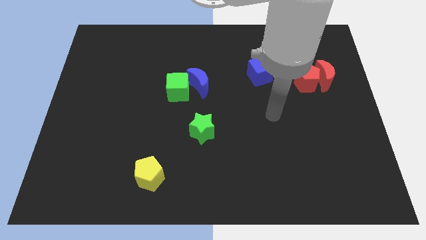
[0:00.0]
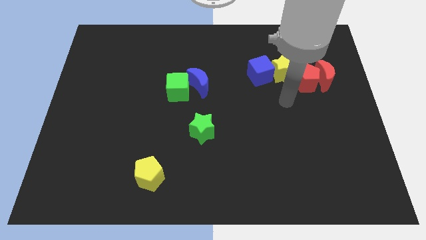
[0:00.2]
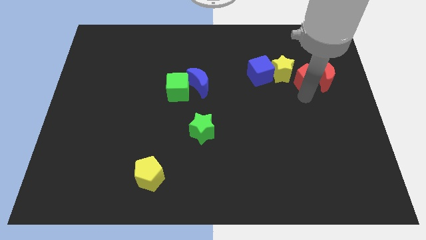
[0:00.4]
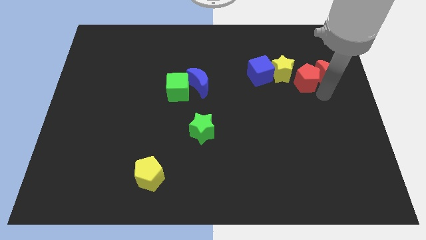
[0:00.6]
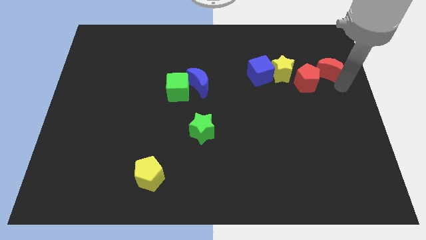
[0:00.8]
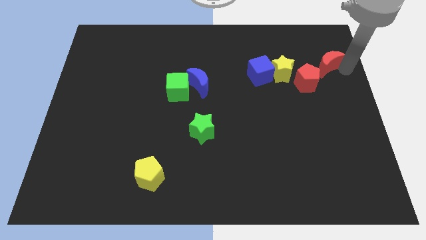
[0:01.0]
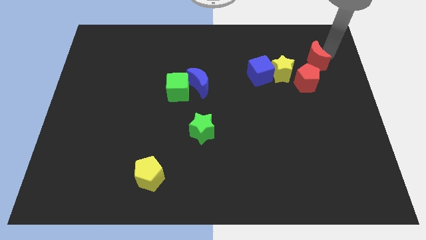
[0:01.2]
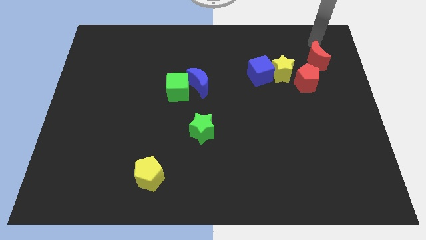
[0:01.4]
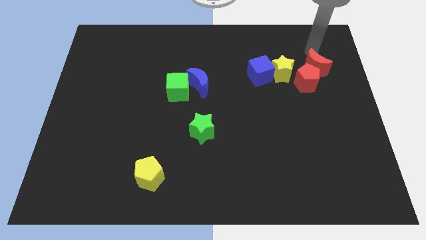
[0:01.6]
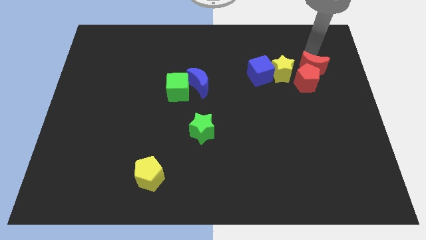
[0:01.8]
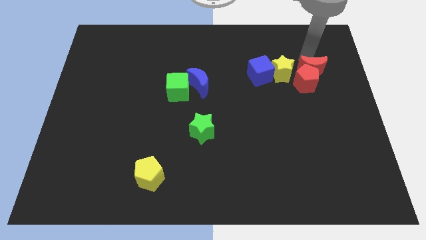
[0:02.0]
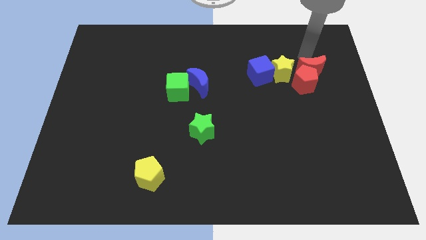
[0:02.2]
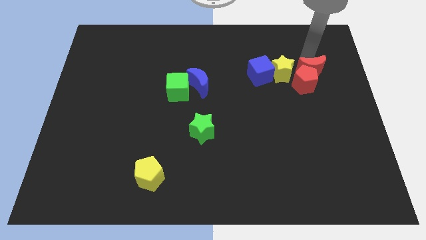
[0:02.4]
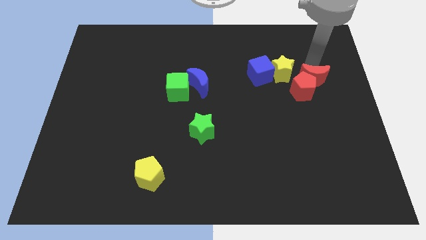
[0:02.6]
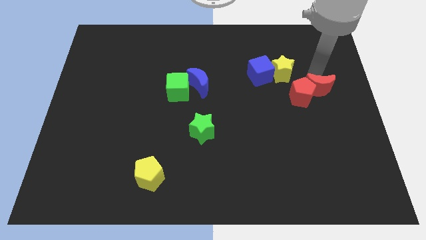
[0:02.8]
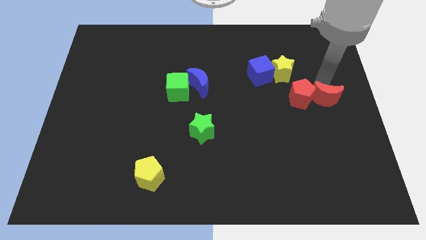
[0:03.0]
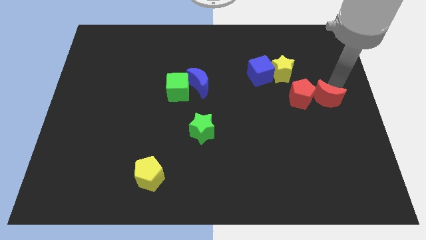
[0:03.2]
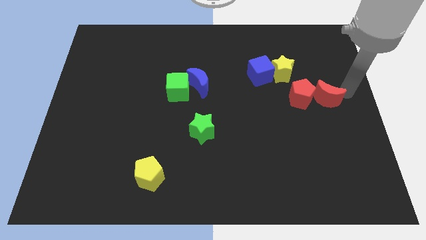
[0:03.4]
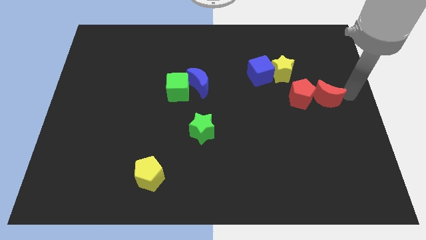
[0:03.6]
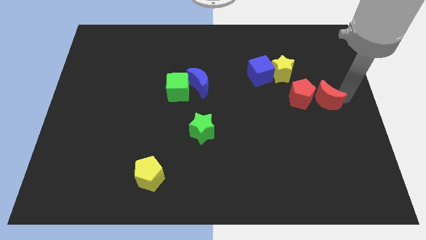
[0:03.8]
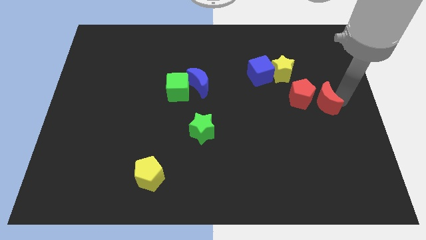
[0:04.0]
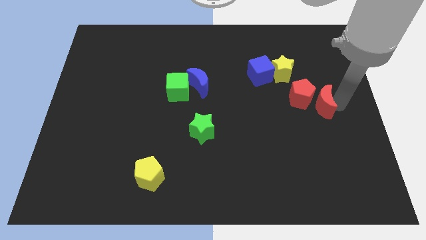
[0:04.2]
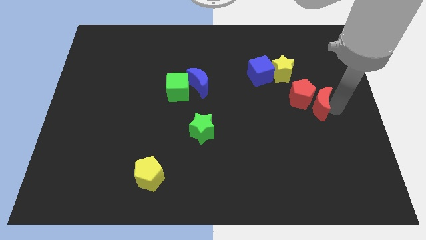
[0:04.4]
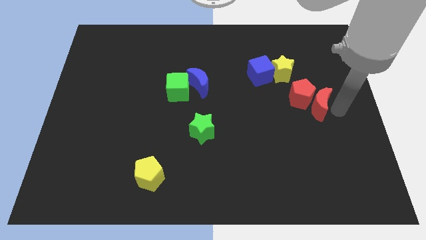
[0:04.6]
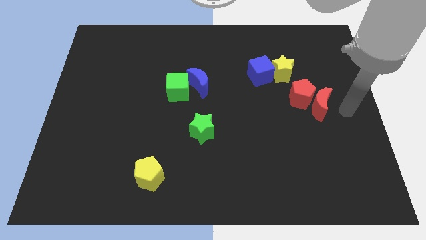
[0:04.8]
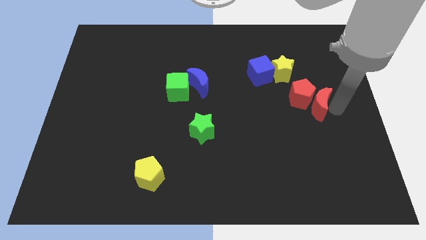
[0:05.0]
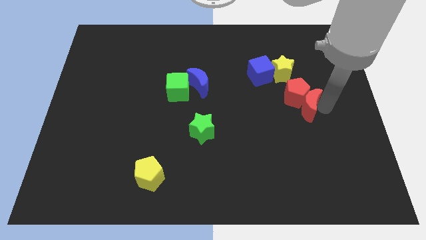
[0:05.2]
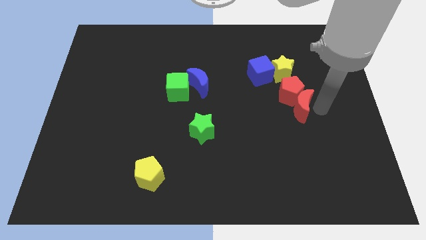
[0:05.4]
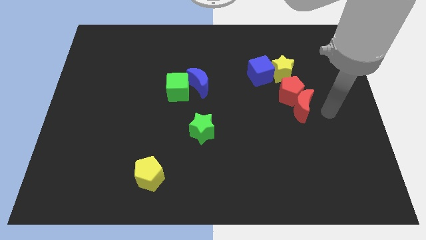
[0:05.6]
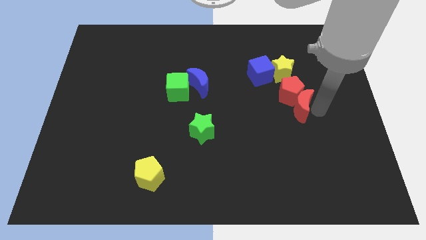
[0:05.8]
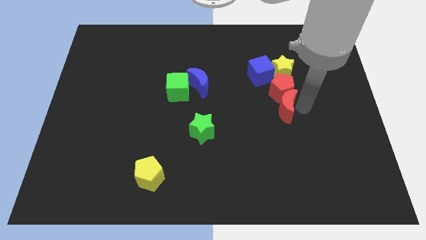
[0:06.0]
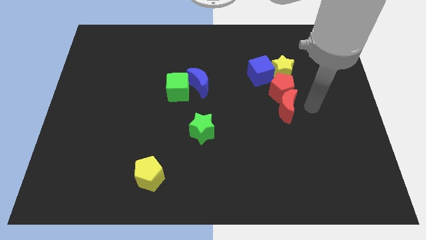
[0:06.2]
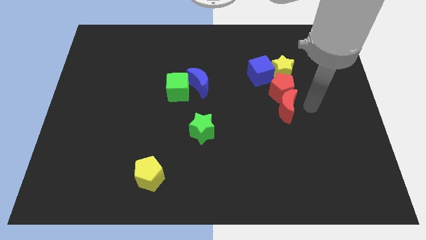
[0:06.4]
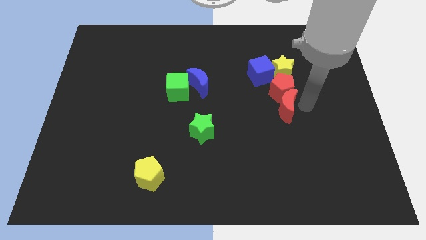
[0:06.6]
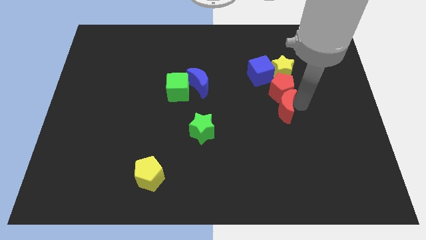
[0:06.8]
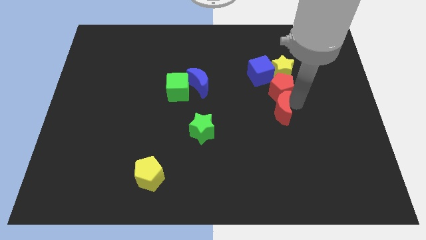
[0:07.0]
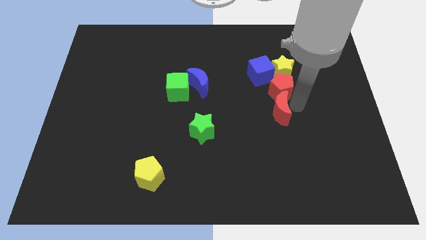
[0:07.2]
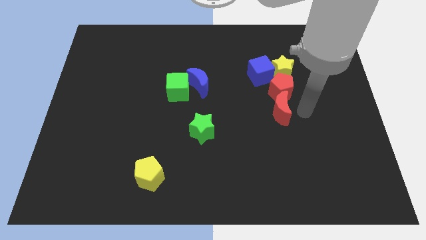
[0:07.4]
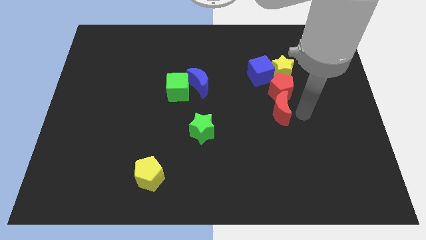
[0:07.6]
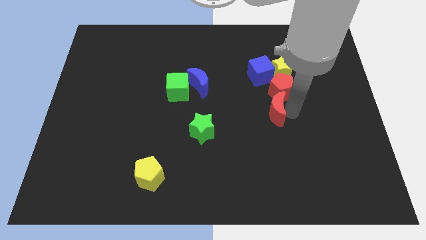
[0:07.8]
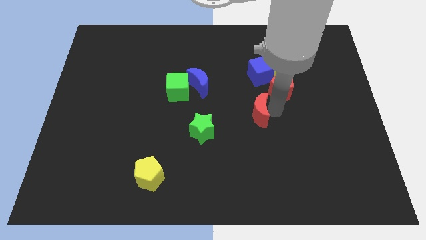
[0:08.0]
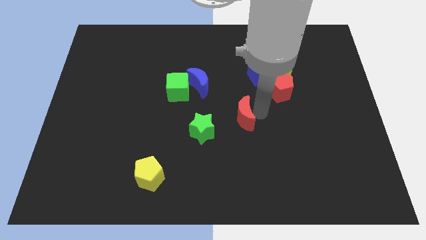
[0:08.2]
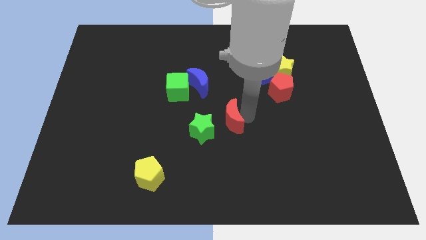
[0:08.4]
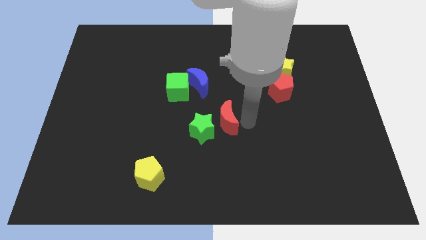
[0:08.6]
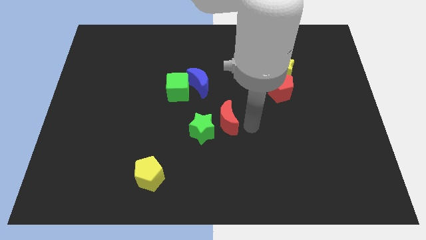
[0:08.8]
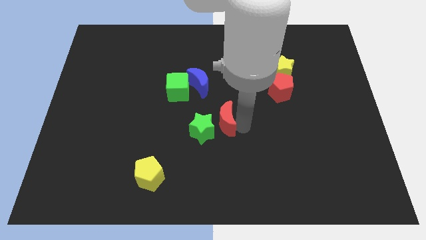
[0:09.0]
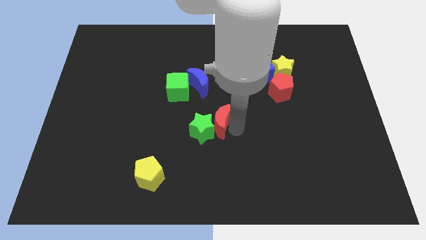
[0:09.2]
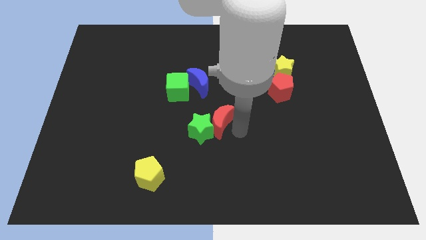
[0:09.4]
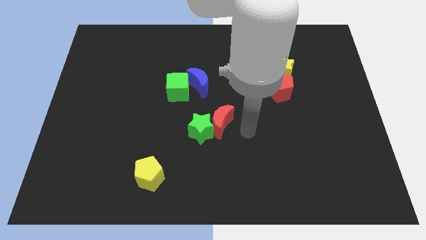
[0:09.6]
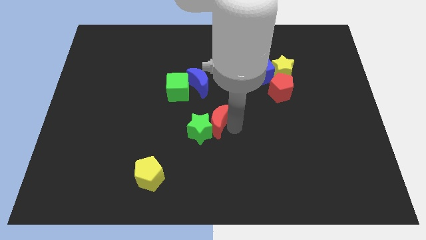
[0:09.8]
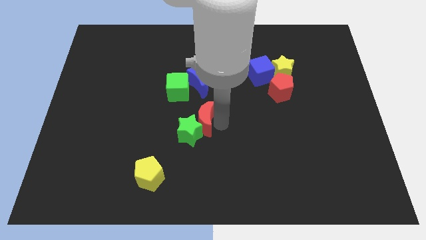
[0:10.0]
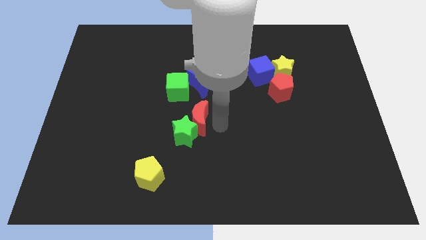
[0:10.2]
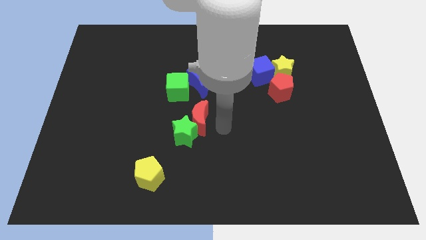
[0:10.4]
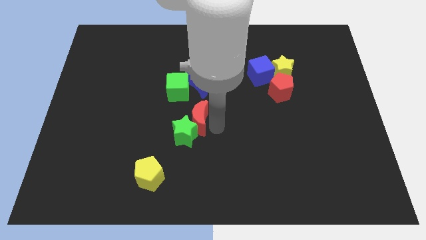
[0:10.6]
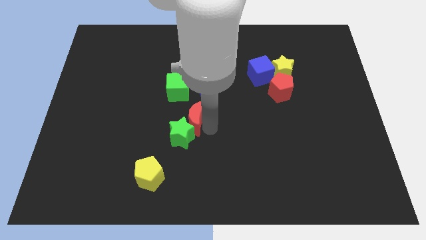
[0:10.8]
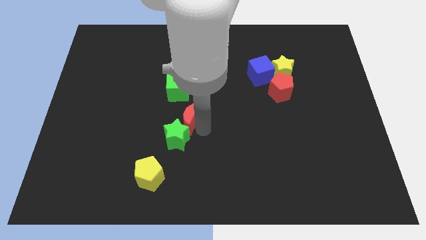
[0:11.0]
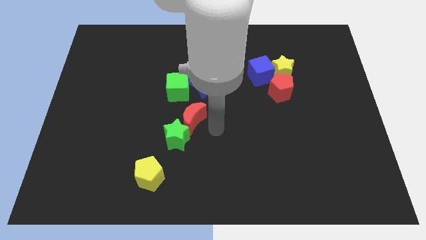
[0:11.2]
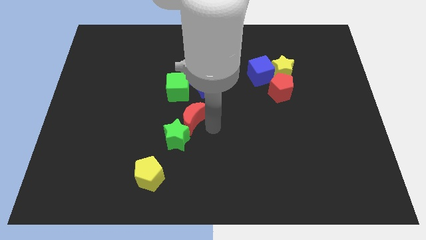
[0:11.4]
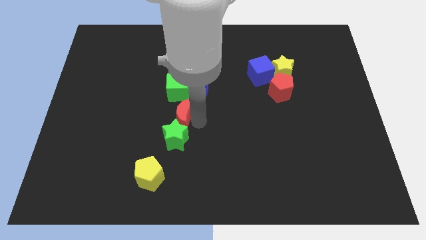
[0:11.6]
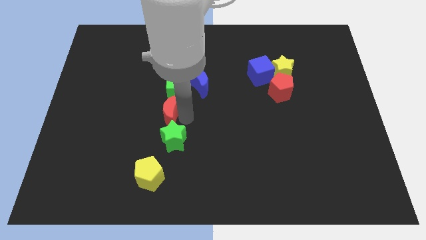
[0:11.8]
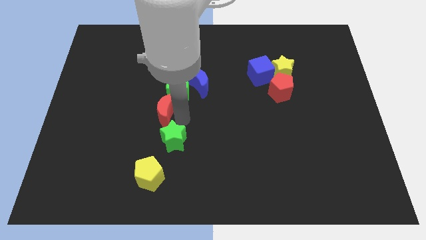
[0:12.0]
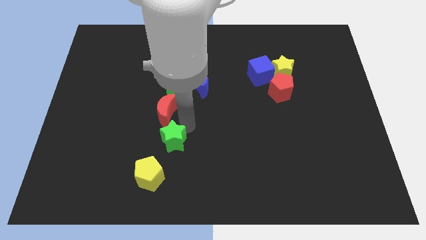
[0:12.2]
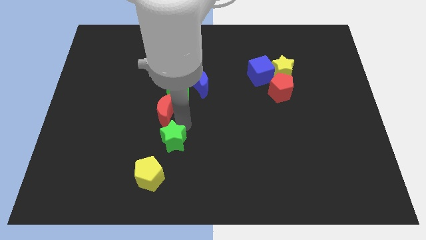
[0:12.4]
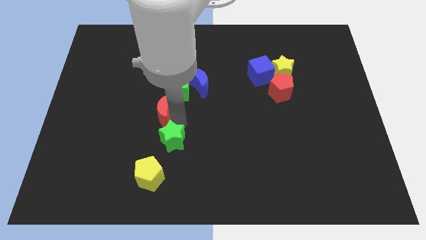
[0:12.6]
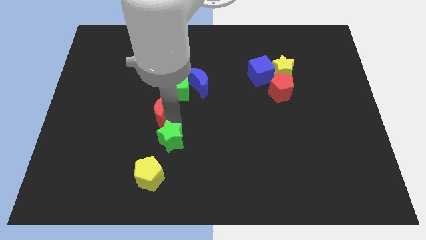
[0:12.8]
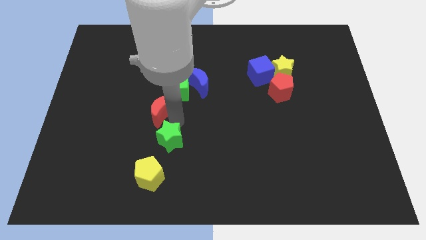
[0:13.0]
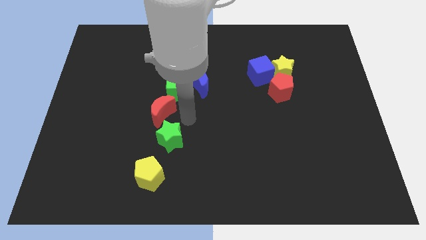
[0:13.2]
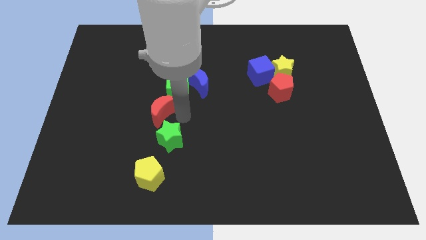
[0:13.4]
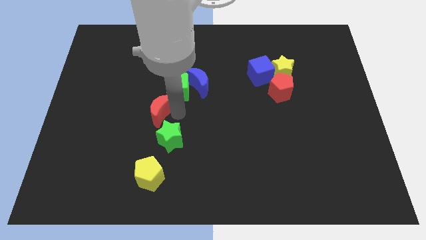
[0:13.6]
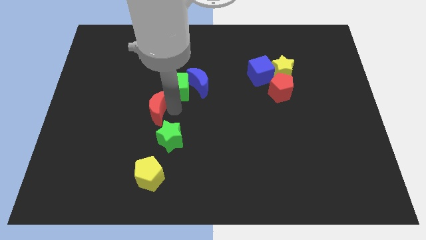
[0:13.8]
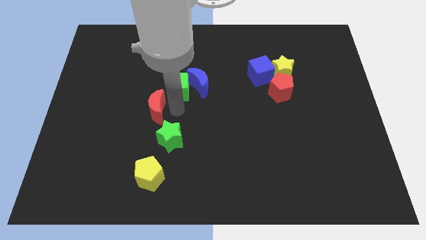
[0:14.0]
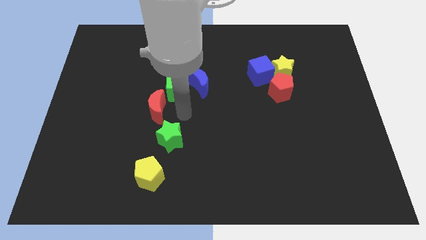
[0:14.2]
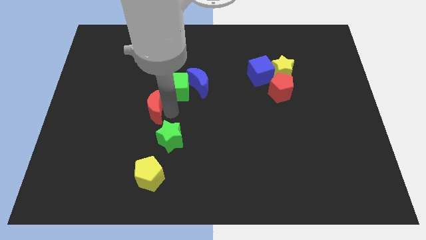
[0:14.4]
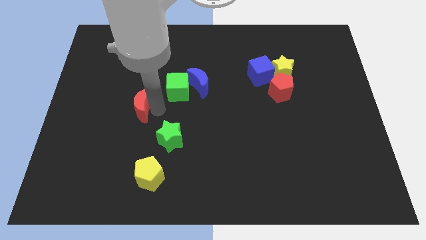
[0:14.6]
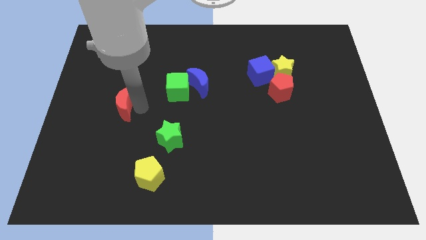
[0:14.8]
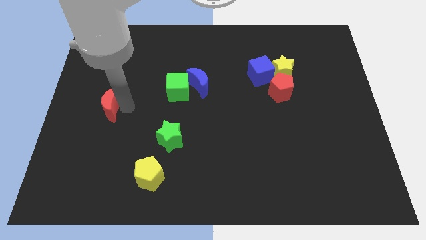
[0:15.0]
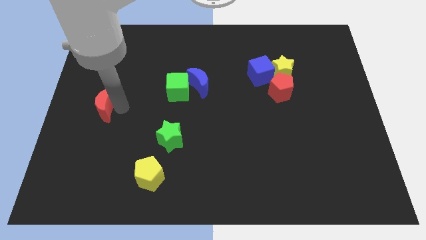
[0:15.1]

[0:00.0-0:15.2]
push the red moon to the center left
